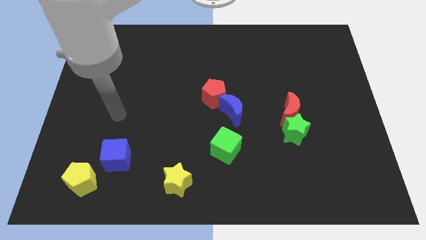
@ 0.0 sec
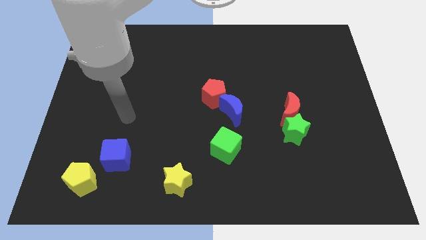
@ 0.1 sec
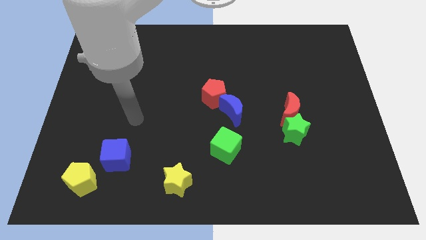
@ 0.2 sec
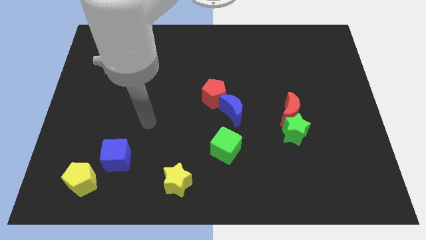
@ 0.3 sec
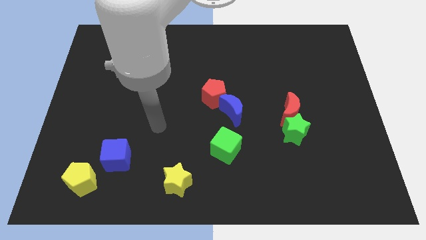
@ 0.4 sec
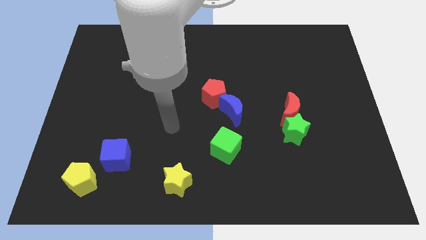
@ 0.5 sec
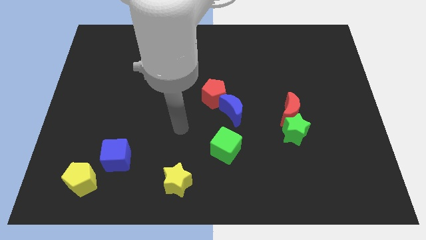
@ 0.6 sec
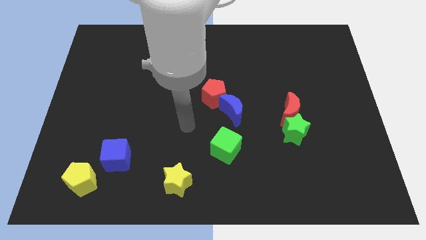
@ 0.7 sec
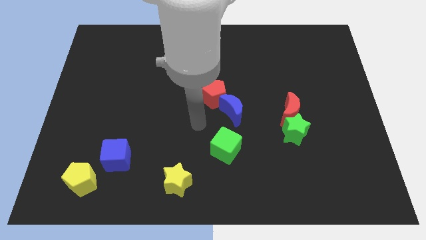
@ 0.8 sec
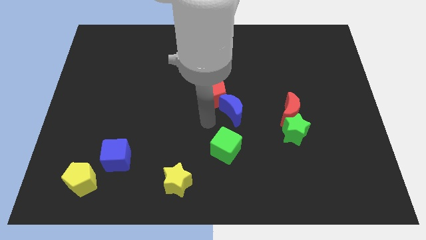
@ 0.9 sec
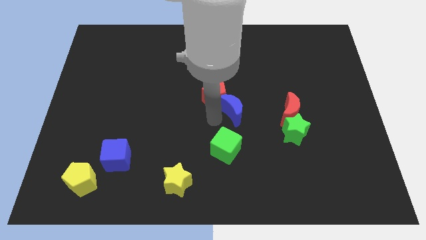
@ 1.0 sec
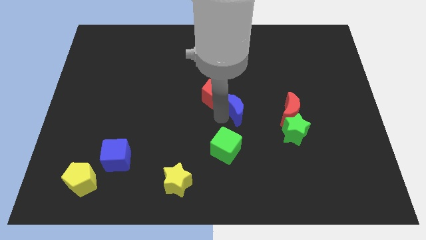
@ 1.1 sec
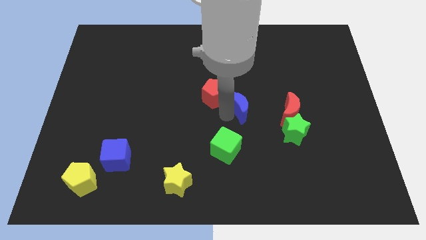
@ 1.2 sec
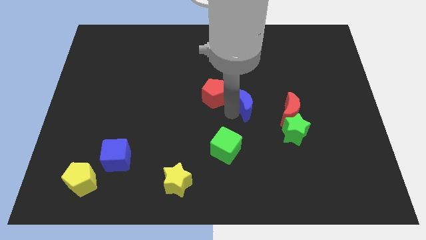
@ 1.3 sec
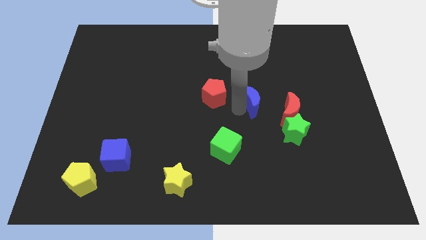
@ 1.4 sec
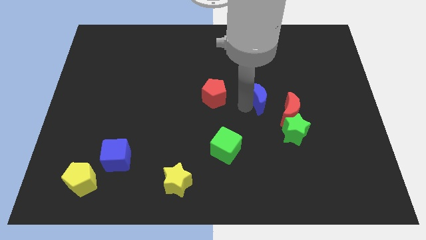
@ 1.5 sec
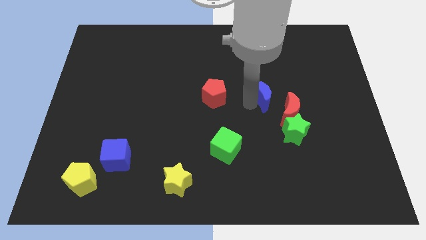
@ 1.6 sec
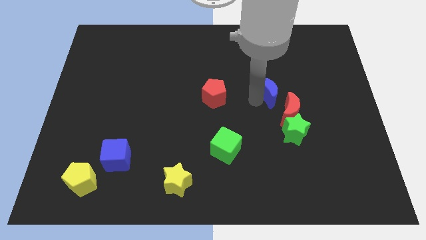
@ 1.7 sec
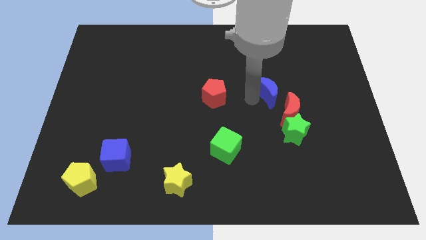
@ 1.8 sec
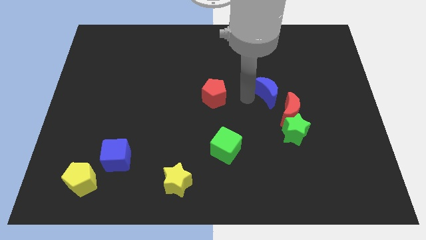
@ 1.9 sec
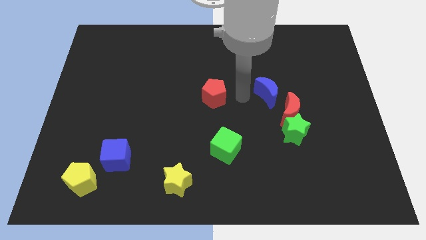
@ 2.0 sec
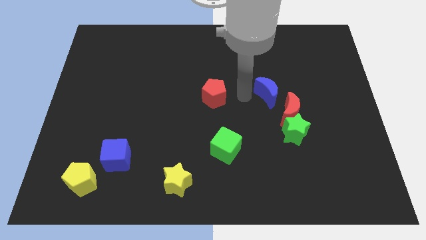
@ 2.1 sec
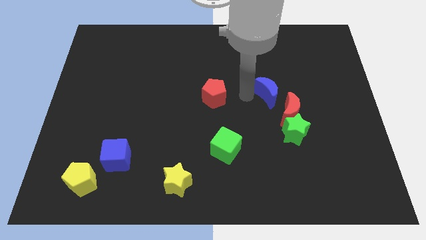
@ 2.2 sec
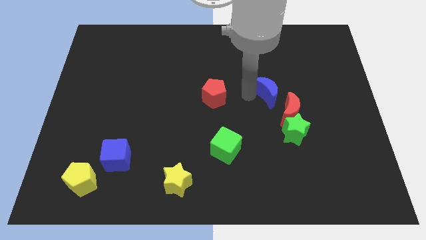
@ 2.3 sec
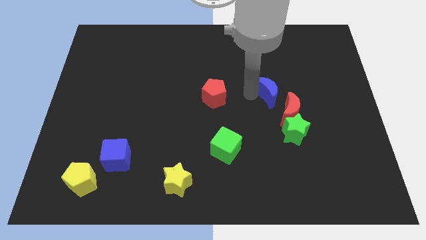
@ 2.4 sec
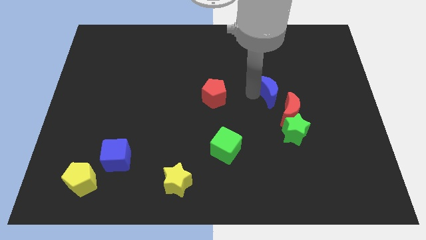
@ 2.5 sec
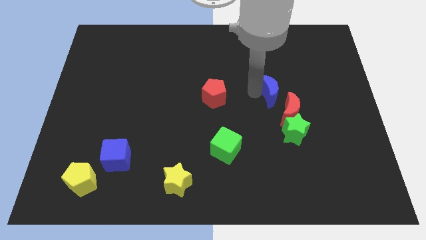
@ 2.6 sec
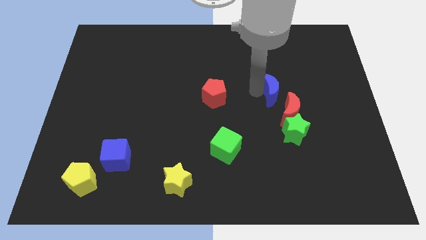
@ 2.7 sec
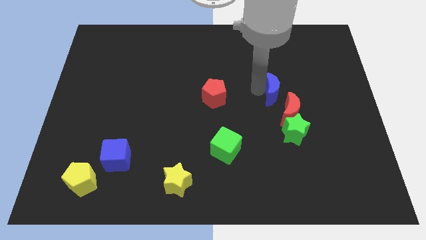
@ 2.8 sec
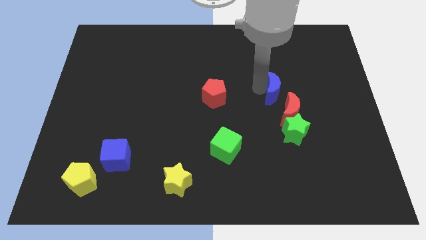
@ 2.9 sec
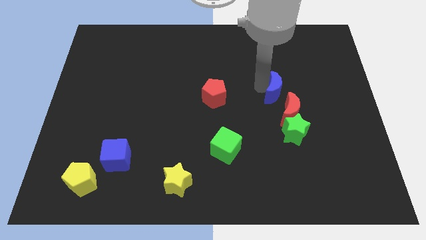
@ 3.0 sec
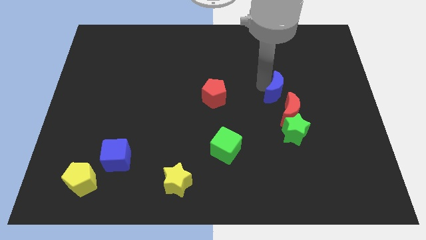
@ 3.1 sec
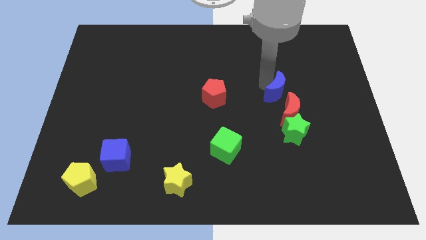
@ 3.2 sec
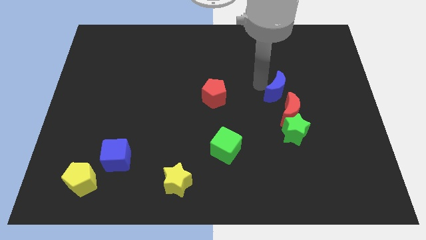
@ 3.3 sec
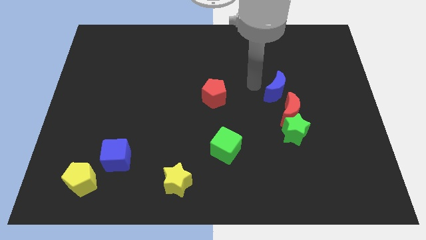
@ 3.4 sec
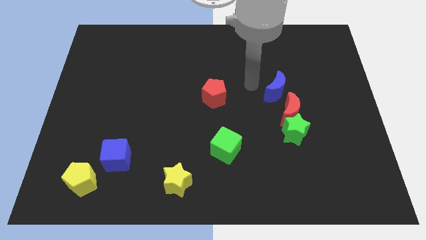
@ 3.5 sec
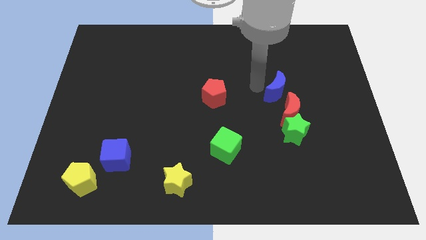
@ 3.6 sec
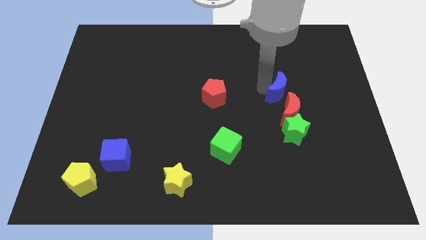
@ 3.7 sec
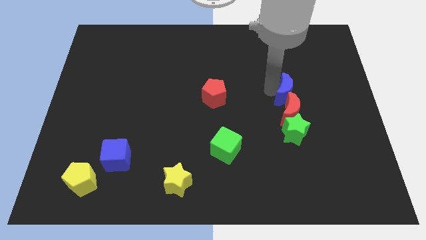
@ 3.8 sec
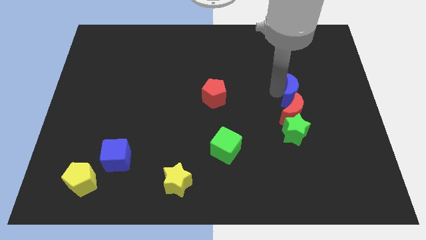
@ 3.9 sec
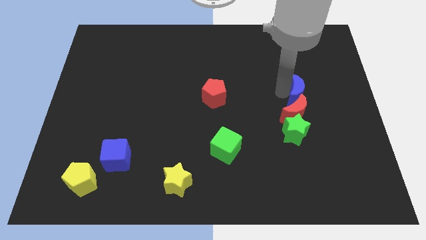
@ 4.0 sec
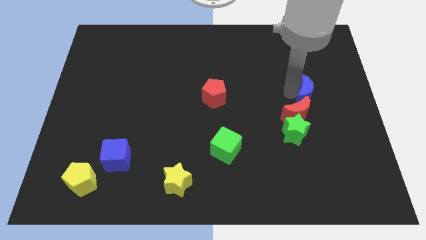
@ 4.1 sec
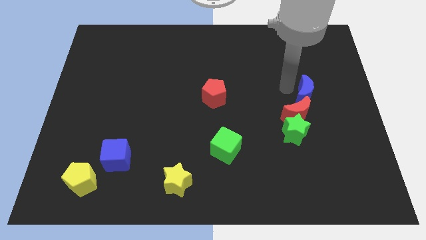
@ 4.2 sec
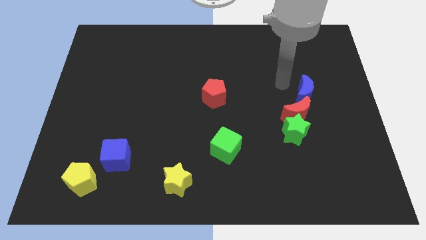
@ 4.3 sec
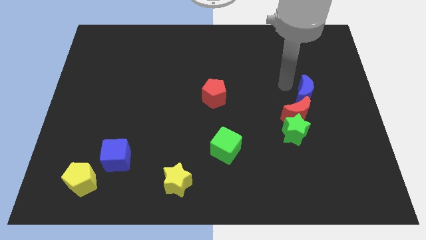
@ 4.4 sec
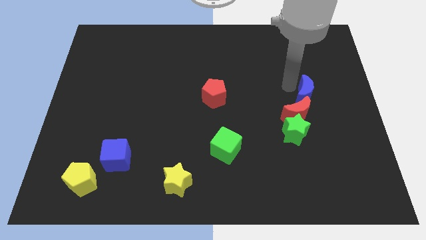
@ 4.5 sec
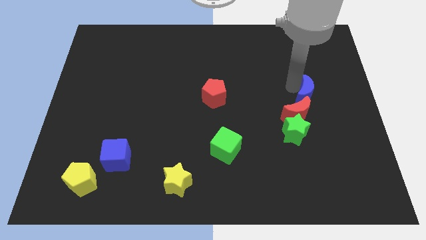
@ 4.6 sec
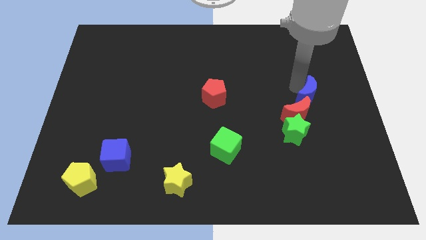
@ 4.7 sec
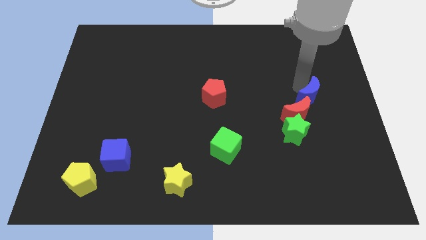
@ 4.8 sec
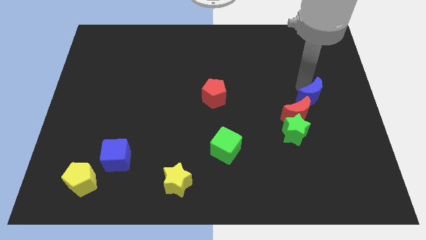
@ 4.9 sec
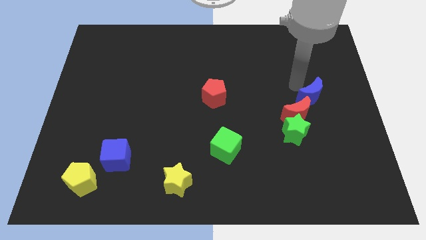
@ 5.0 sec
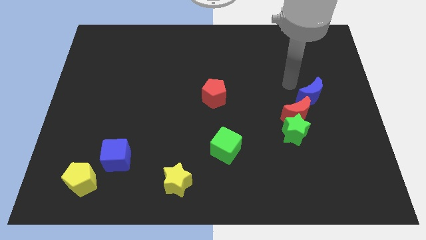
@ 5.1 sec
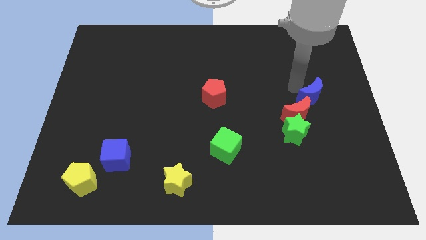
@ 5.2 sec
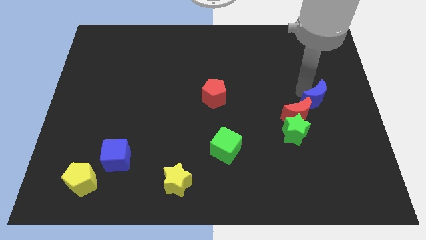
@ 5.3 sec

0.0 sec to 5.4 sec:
slide the blue moon to the right of the red moon

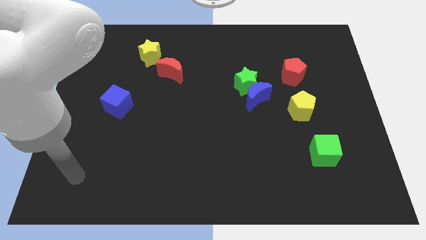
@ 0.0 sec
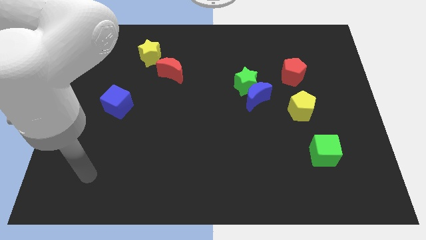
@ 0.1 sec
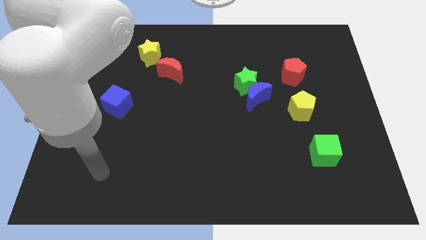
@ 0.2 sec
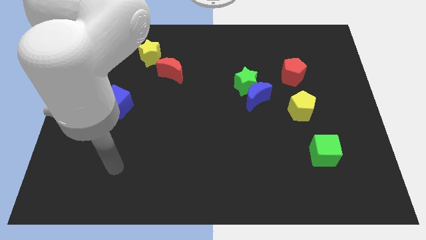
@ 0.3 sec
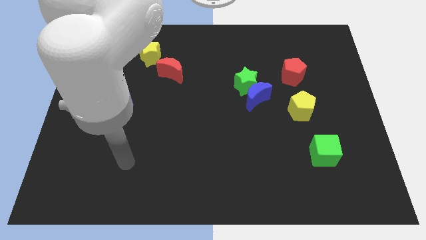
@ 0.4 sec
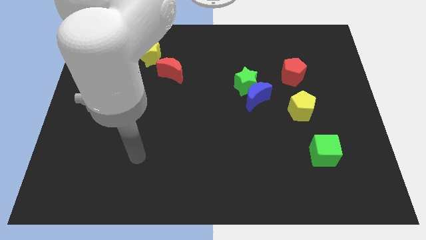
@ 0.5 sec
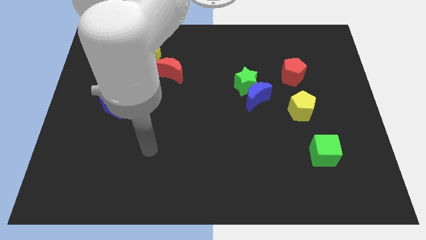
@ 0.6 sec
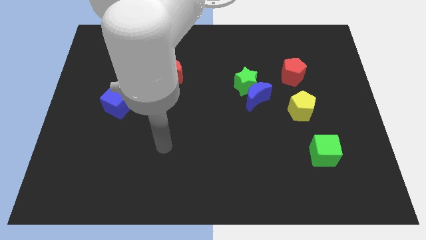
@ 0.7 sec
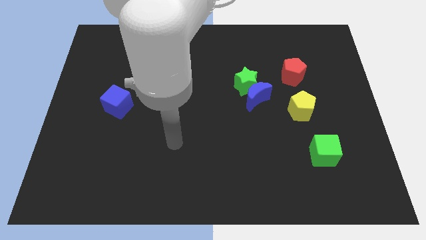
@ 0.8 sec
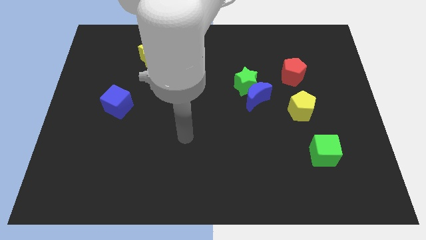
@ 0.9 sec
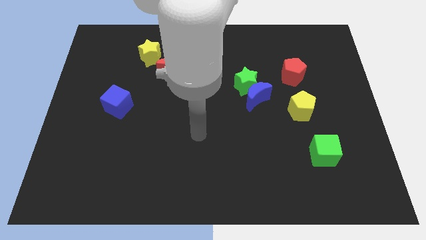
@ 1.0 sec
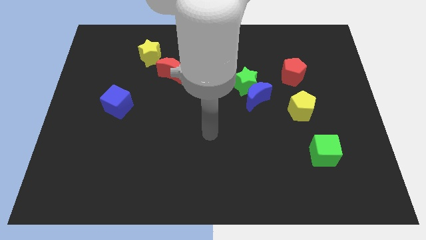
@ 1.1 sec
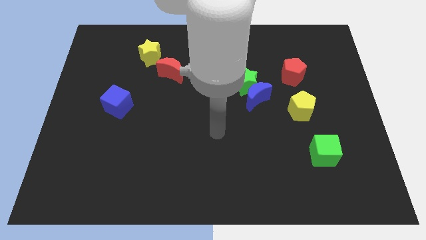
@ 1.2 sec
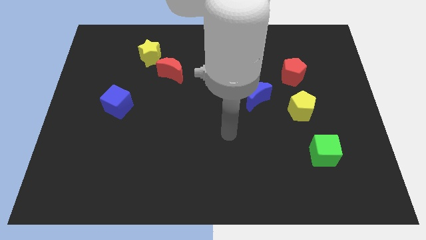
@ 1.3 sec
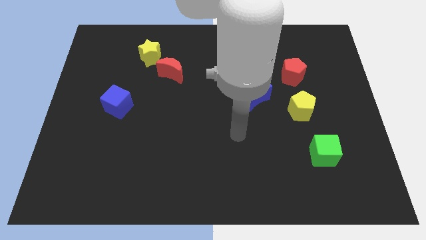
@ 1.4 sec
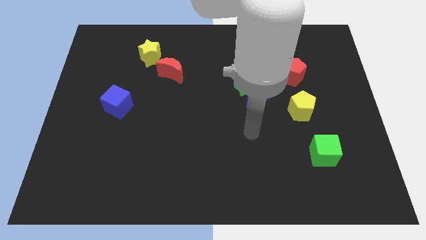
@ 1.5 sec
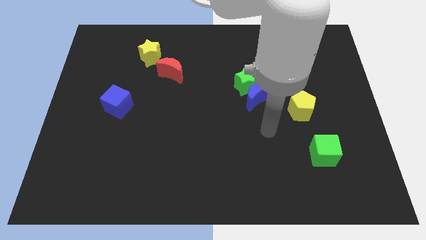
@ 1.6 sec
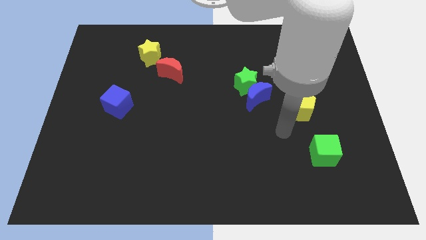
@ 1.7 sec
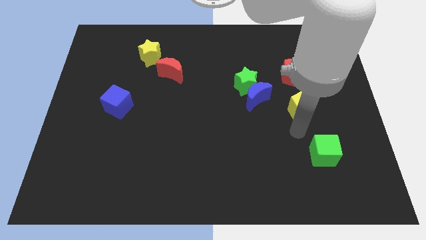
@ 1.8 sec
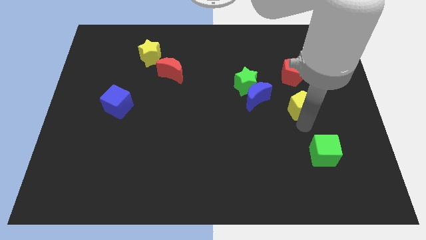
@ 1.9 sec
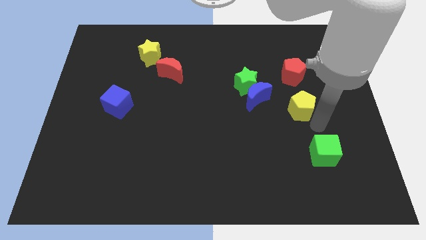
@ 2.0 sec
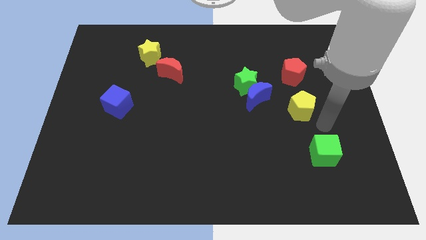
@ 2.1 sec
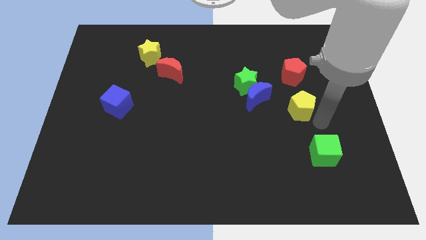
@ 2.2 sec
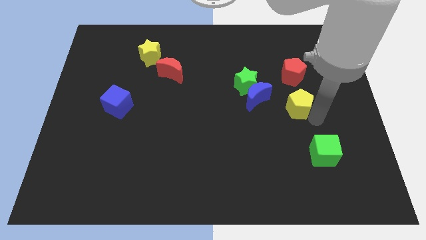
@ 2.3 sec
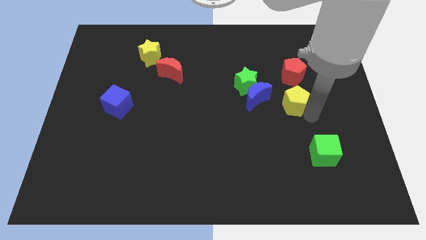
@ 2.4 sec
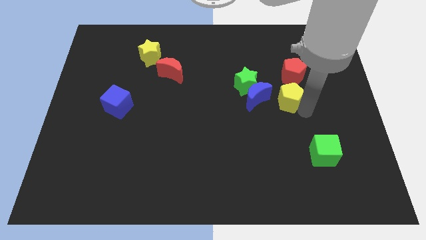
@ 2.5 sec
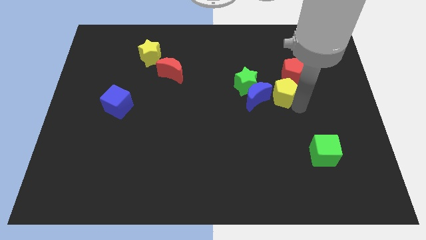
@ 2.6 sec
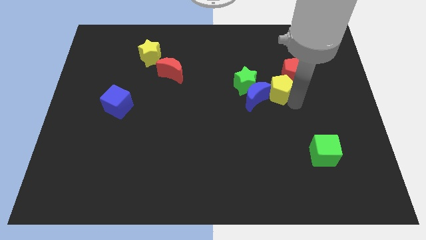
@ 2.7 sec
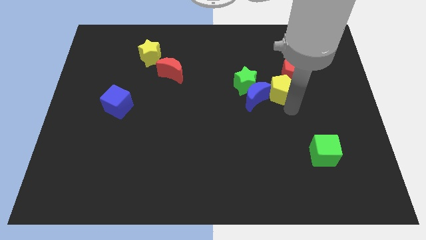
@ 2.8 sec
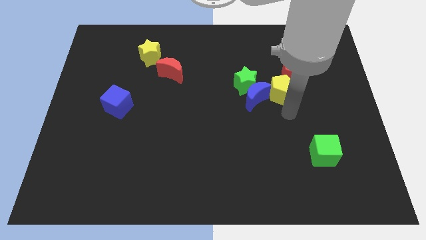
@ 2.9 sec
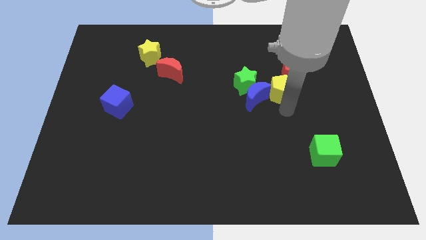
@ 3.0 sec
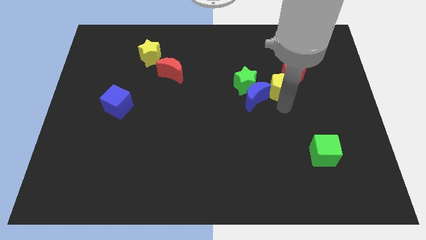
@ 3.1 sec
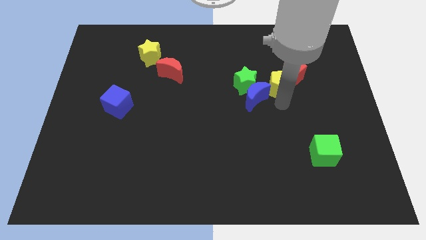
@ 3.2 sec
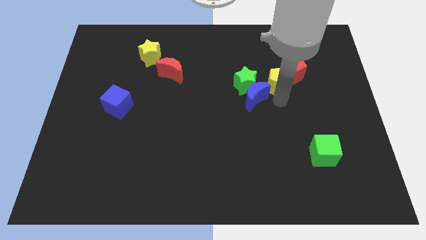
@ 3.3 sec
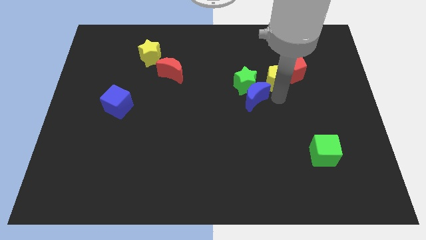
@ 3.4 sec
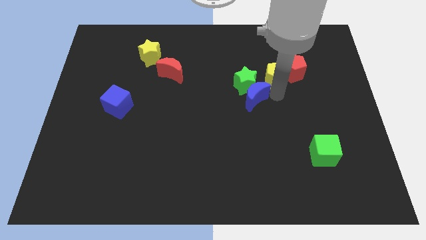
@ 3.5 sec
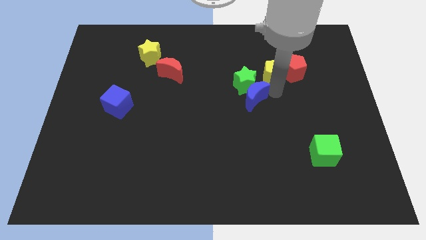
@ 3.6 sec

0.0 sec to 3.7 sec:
push the yellow pentagon to the top left of the red pentagon
